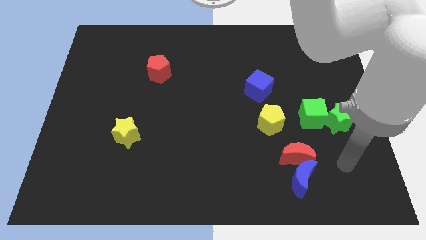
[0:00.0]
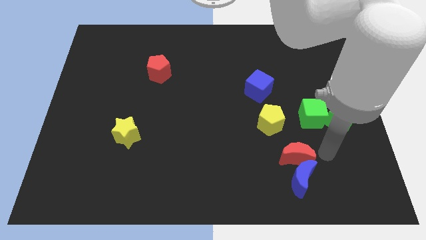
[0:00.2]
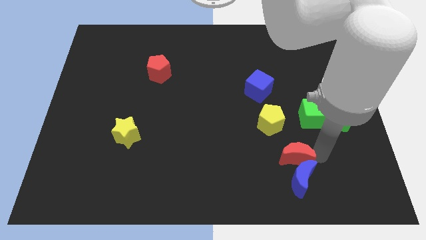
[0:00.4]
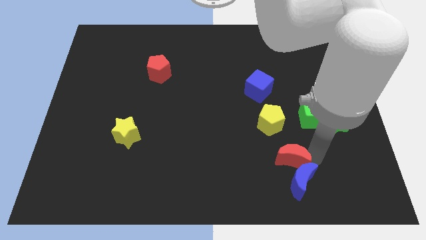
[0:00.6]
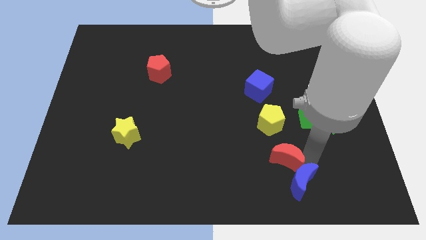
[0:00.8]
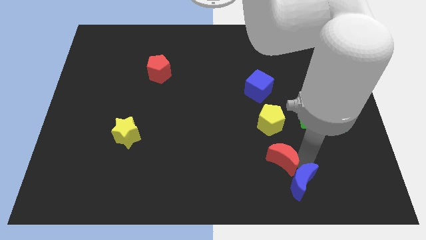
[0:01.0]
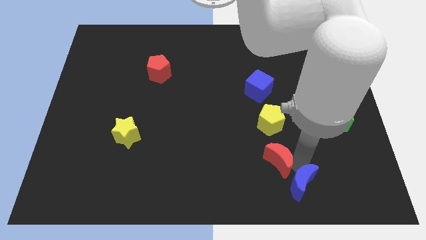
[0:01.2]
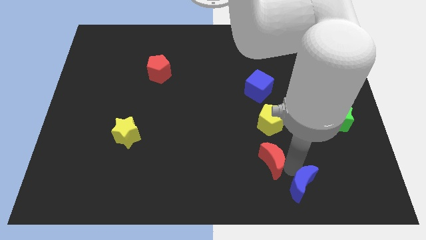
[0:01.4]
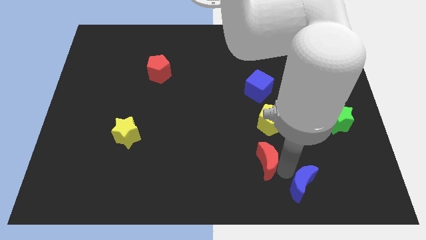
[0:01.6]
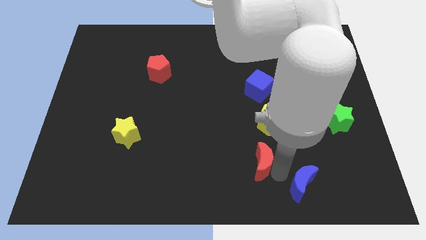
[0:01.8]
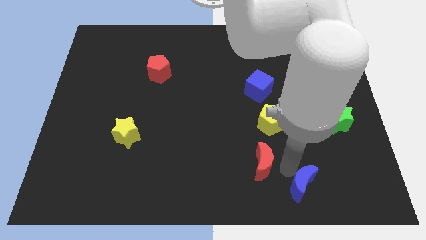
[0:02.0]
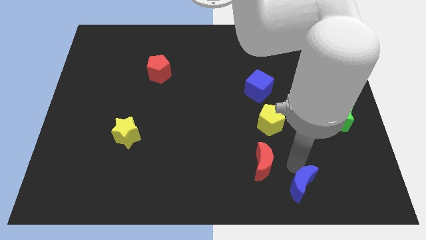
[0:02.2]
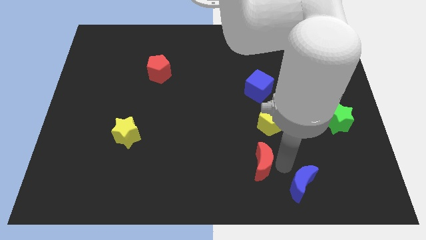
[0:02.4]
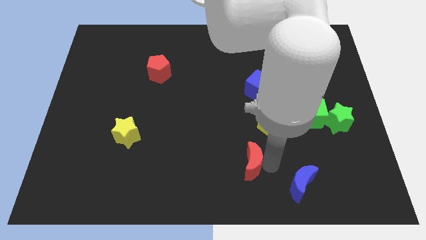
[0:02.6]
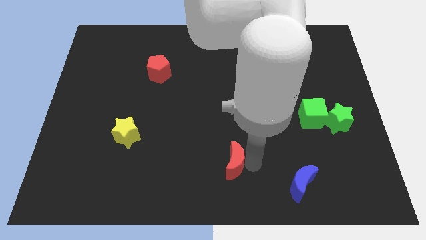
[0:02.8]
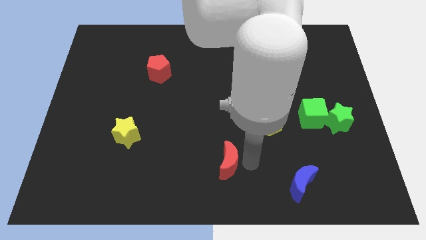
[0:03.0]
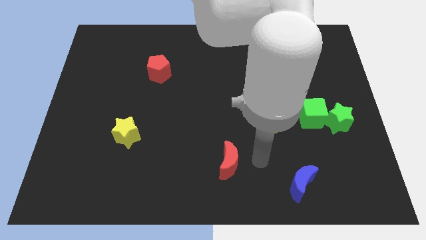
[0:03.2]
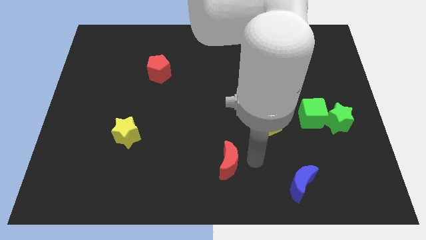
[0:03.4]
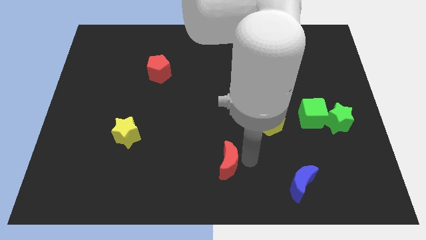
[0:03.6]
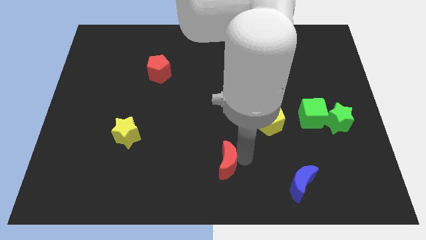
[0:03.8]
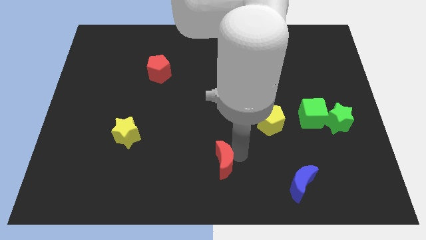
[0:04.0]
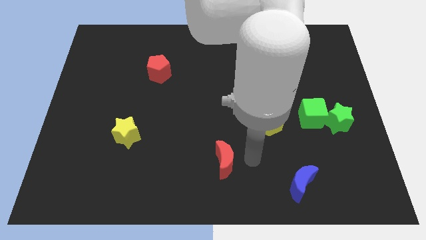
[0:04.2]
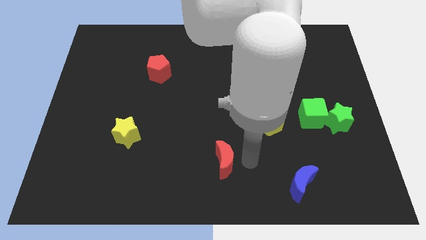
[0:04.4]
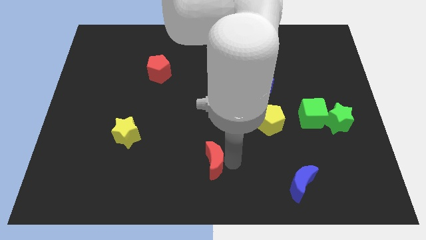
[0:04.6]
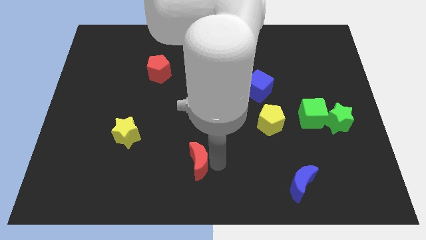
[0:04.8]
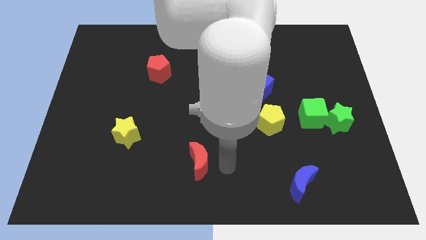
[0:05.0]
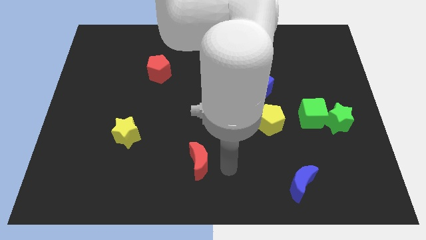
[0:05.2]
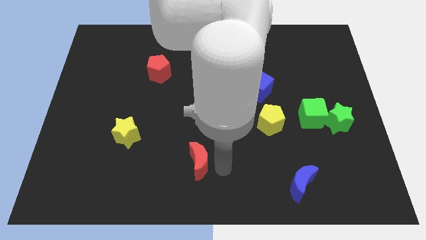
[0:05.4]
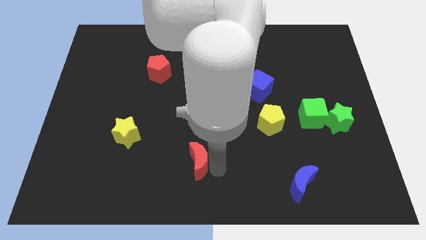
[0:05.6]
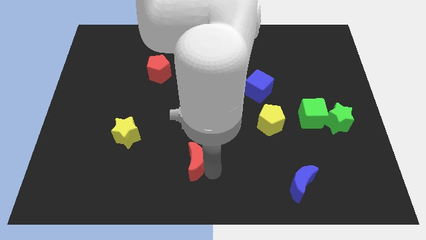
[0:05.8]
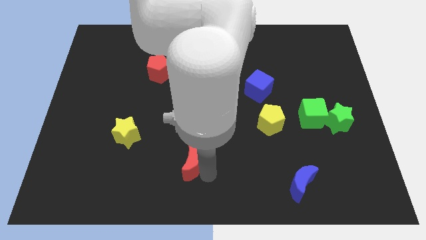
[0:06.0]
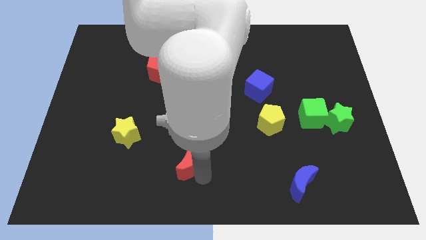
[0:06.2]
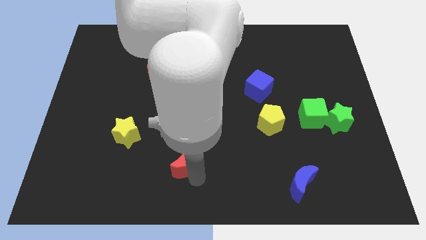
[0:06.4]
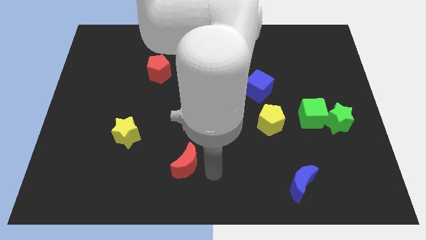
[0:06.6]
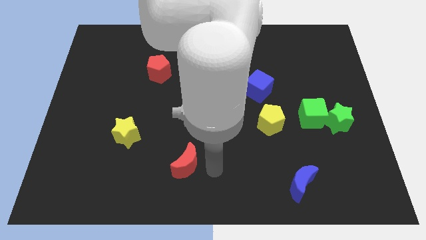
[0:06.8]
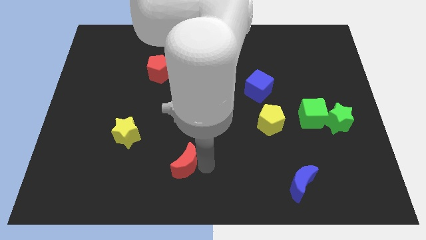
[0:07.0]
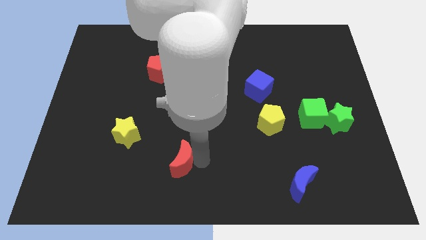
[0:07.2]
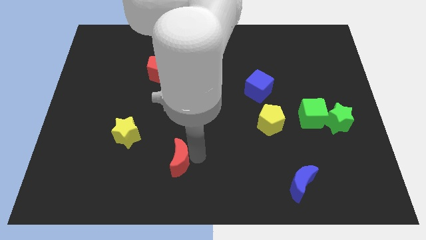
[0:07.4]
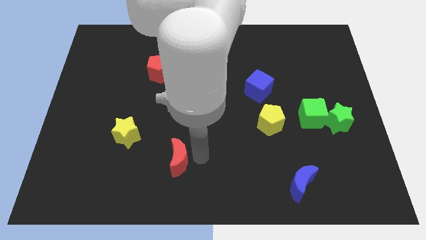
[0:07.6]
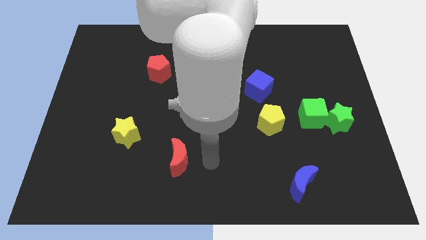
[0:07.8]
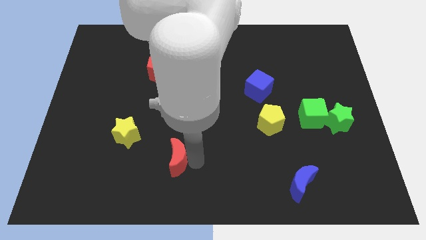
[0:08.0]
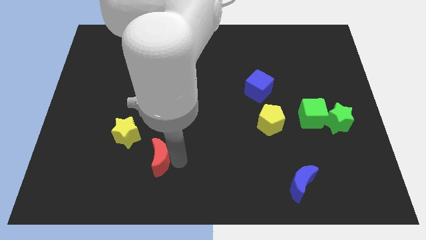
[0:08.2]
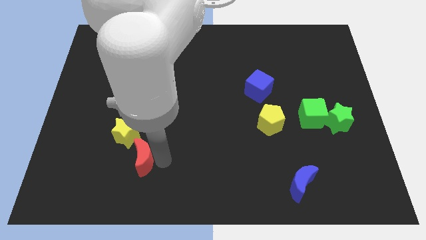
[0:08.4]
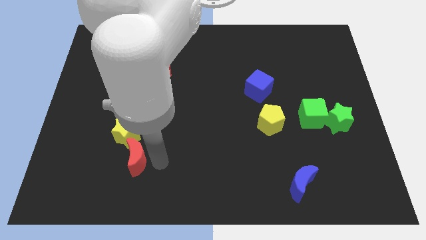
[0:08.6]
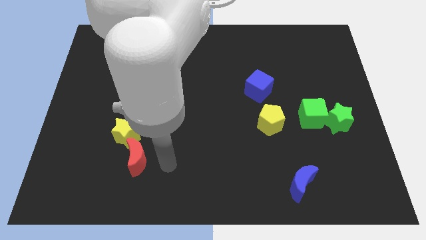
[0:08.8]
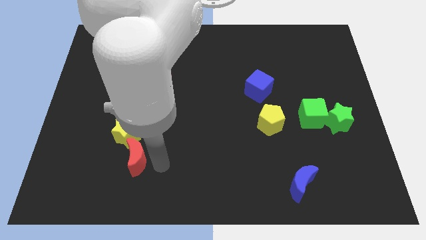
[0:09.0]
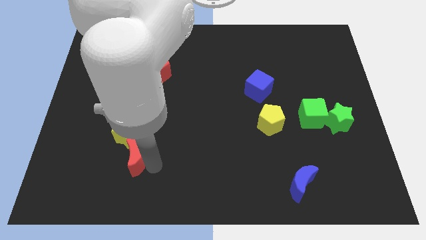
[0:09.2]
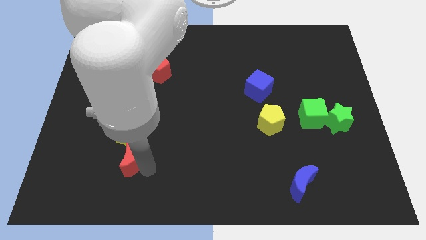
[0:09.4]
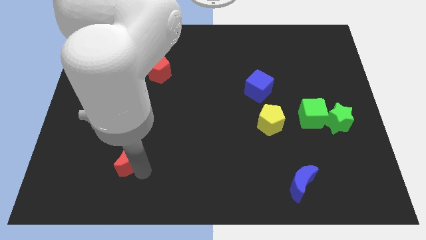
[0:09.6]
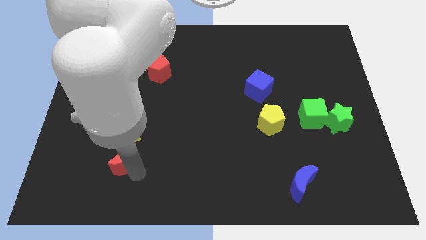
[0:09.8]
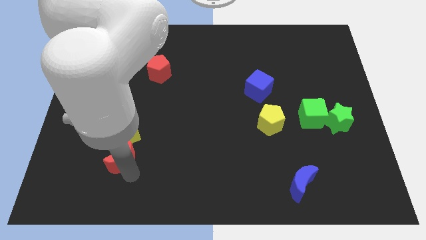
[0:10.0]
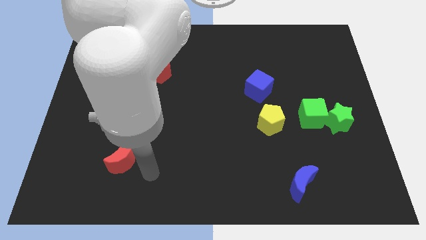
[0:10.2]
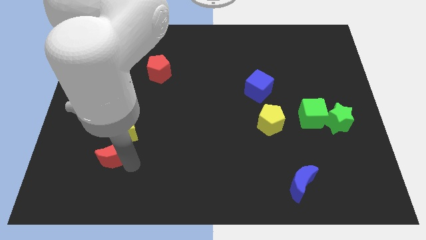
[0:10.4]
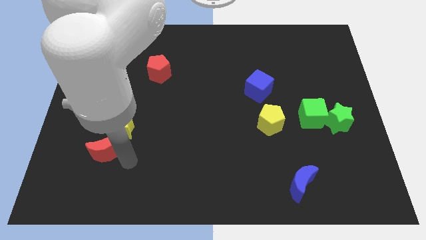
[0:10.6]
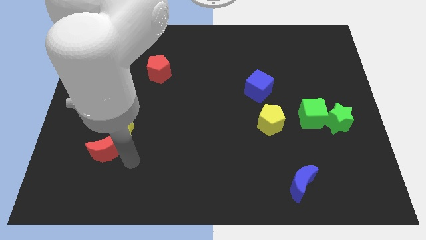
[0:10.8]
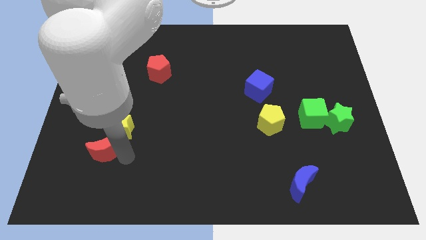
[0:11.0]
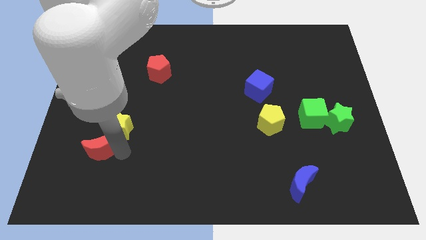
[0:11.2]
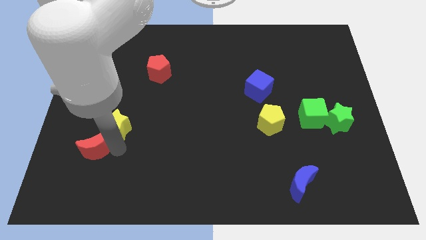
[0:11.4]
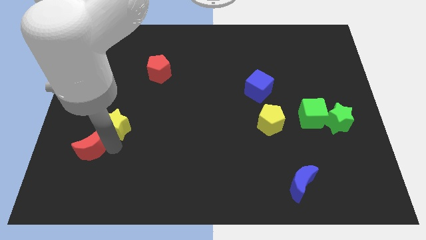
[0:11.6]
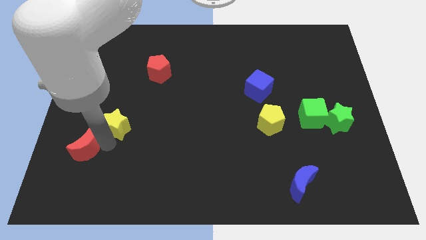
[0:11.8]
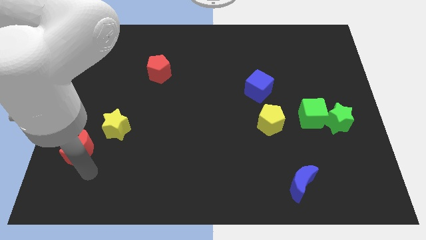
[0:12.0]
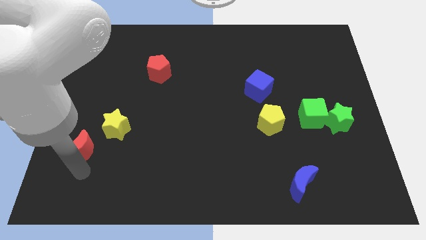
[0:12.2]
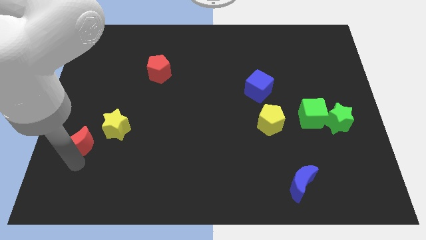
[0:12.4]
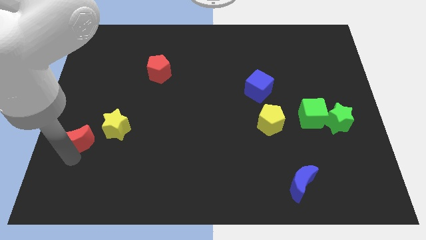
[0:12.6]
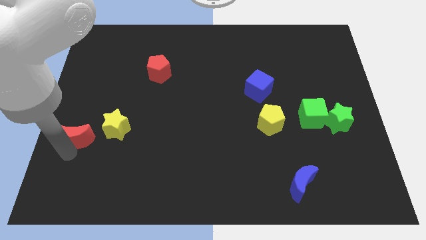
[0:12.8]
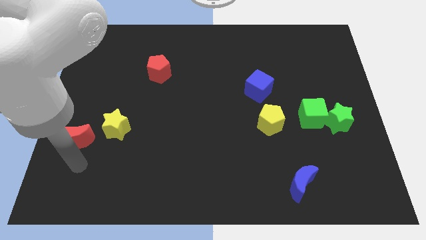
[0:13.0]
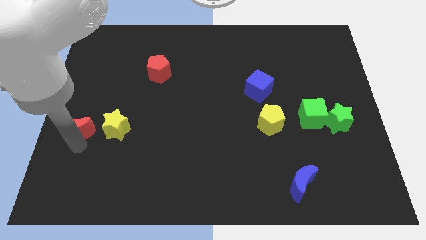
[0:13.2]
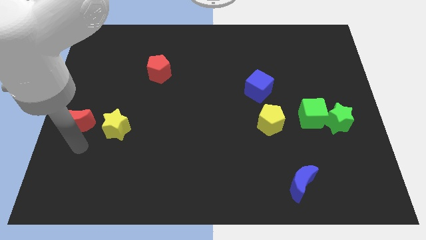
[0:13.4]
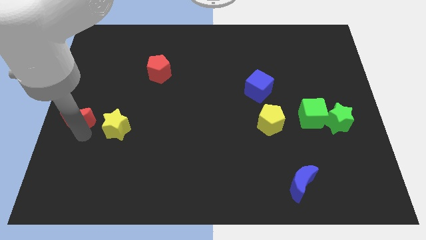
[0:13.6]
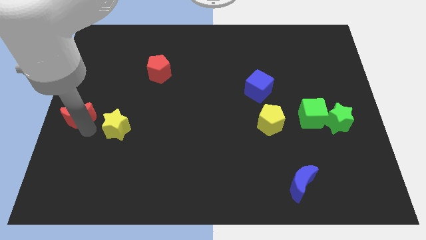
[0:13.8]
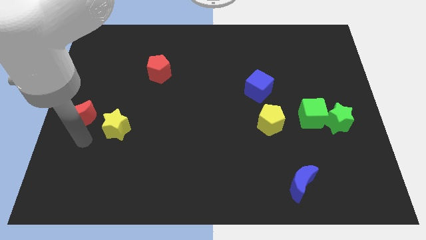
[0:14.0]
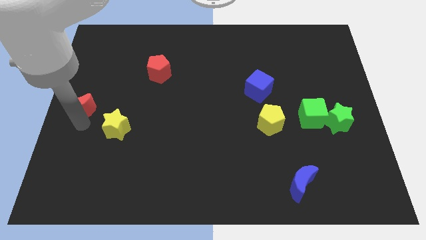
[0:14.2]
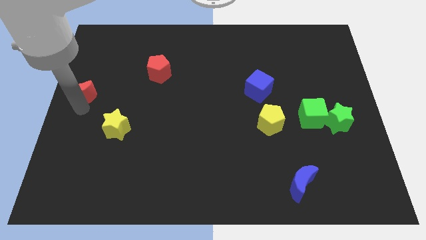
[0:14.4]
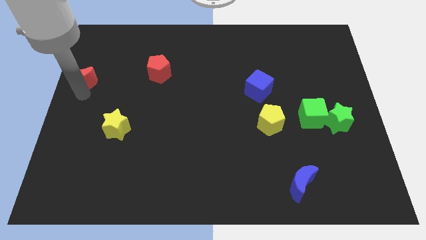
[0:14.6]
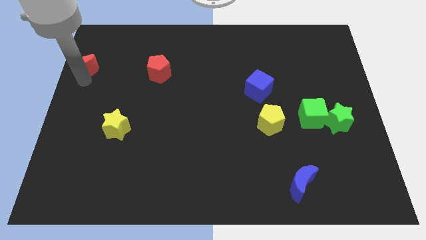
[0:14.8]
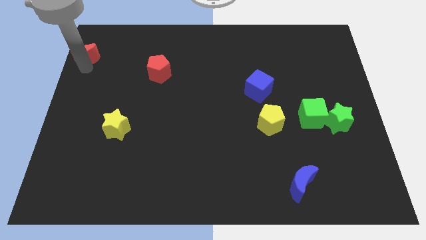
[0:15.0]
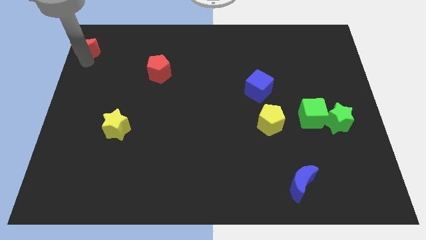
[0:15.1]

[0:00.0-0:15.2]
push the red moon to the top left corner
